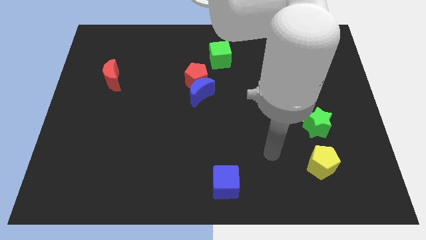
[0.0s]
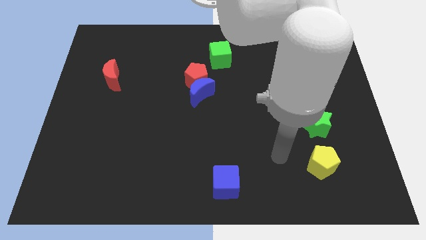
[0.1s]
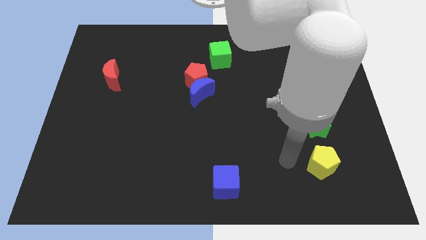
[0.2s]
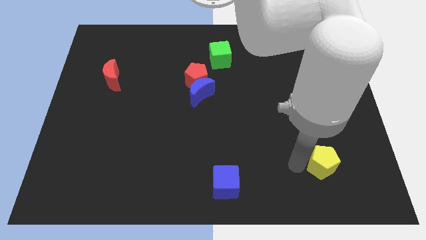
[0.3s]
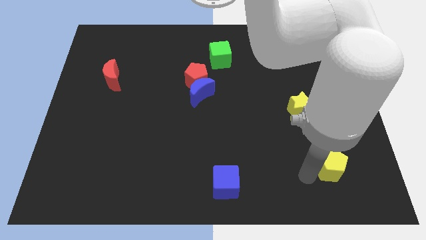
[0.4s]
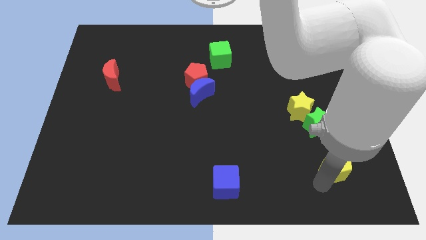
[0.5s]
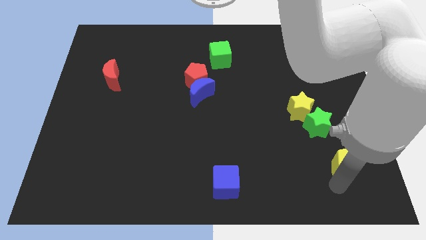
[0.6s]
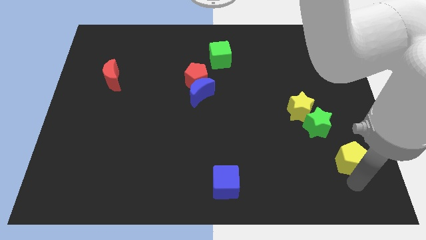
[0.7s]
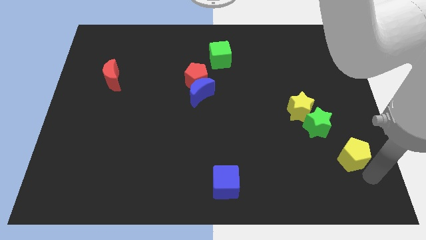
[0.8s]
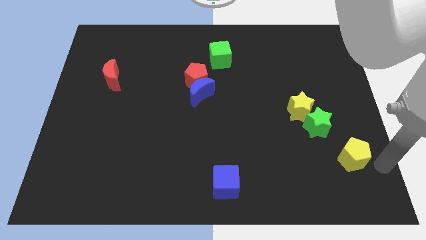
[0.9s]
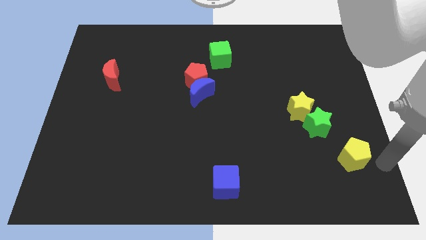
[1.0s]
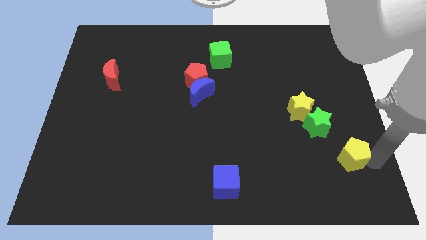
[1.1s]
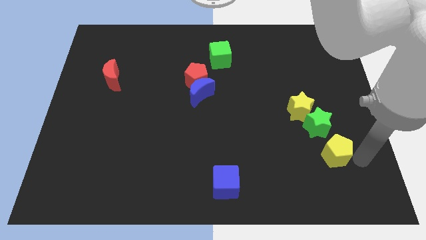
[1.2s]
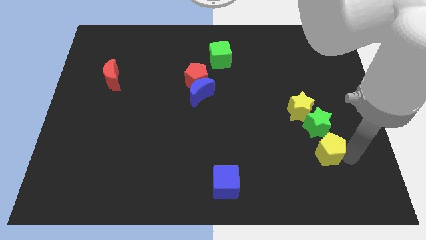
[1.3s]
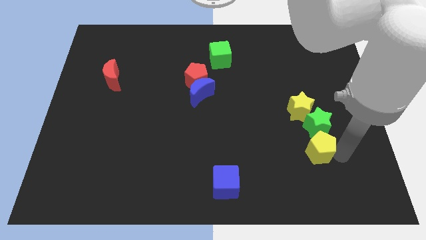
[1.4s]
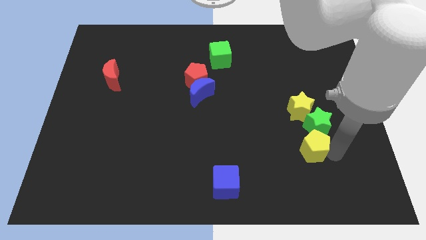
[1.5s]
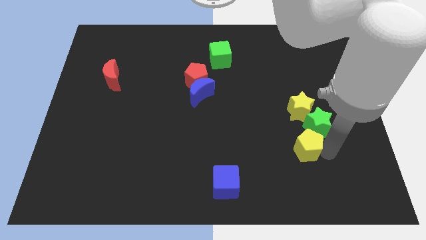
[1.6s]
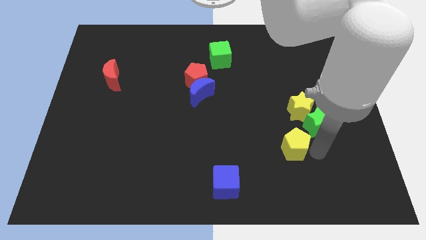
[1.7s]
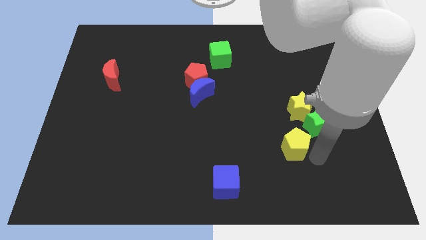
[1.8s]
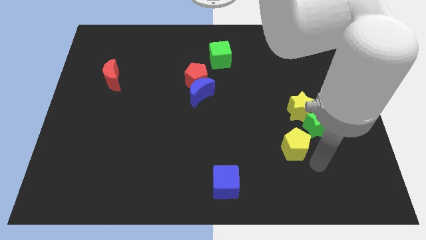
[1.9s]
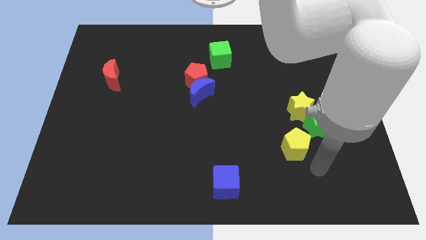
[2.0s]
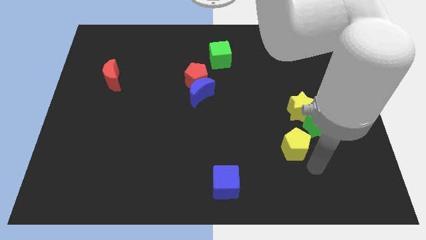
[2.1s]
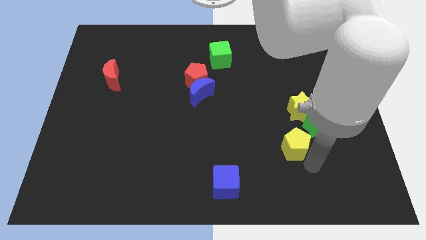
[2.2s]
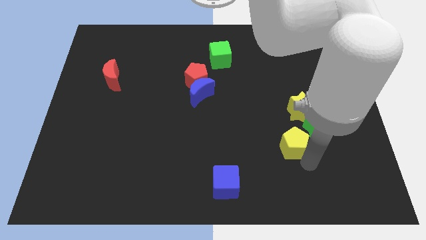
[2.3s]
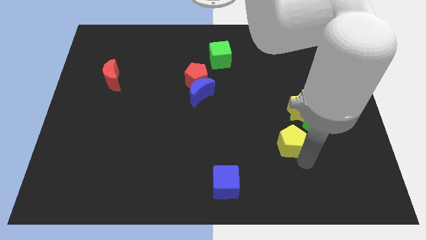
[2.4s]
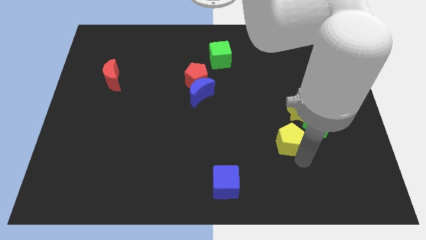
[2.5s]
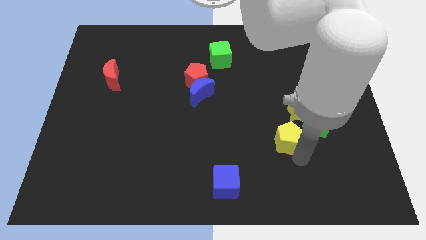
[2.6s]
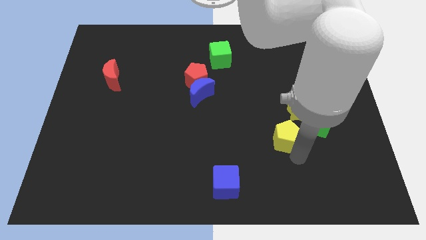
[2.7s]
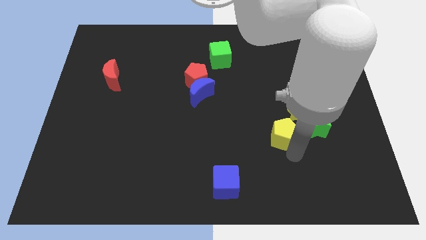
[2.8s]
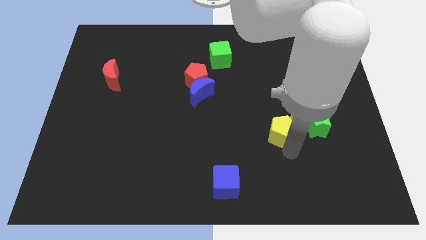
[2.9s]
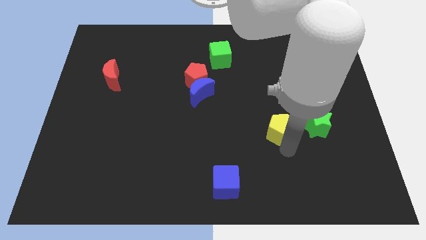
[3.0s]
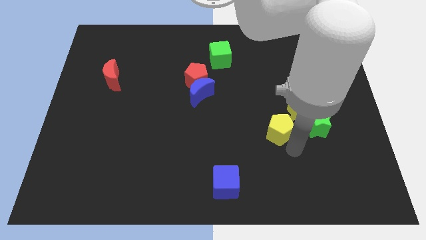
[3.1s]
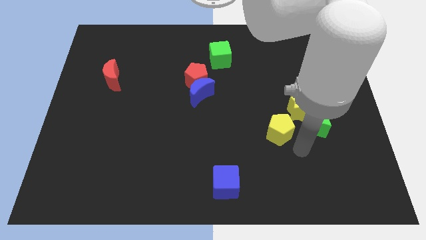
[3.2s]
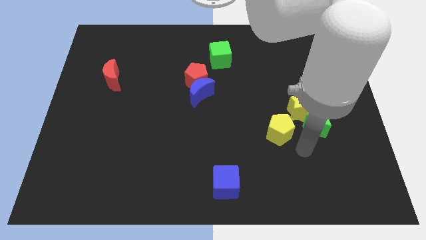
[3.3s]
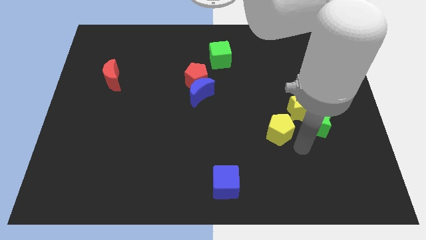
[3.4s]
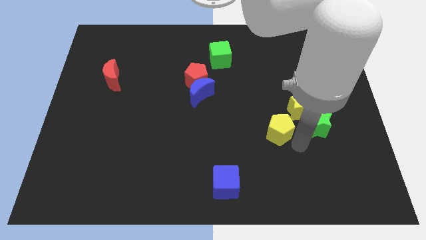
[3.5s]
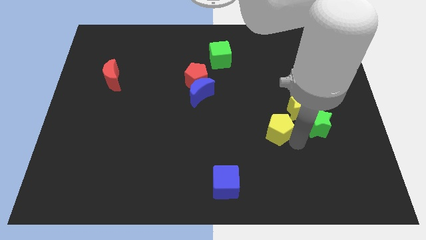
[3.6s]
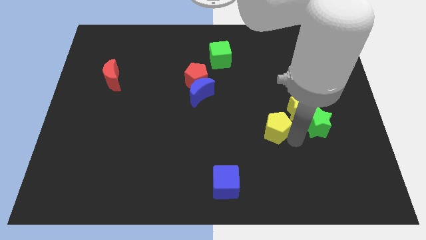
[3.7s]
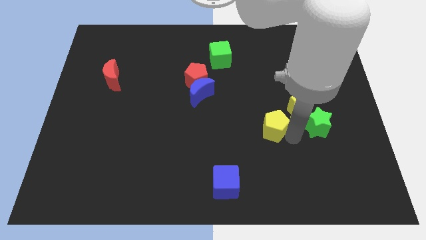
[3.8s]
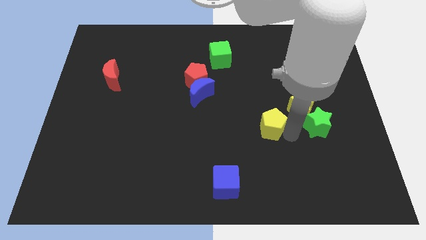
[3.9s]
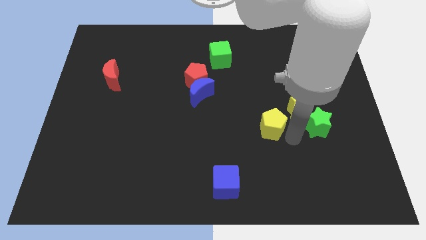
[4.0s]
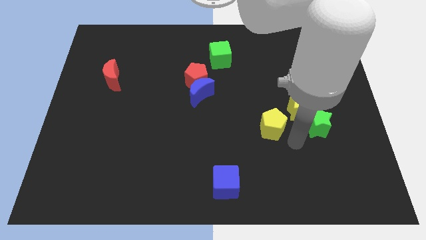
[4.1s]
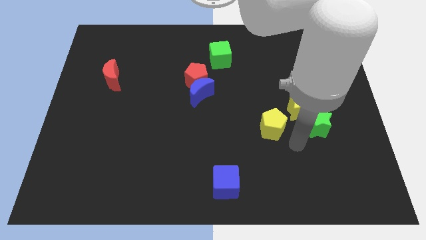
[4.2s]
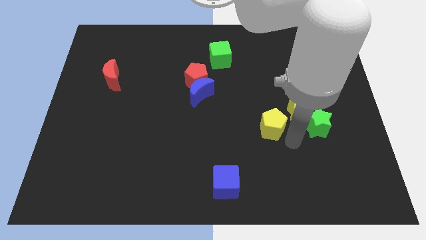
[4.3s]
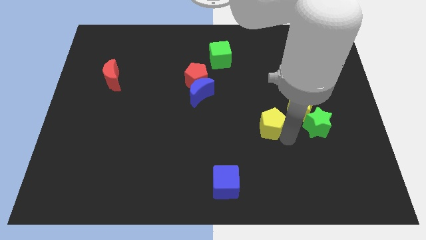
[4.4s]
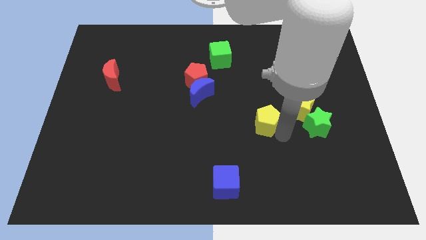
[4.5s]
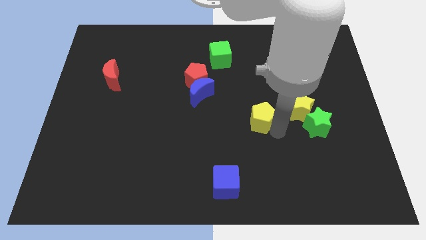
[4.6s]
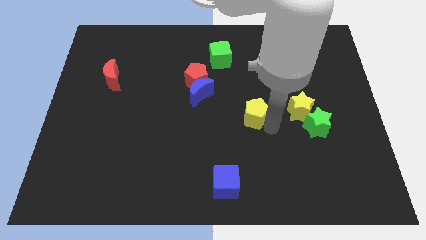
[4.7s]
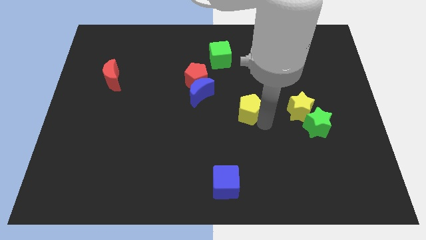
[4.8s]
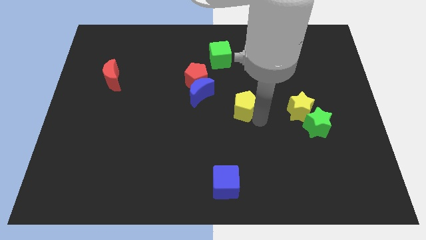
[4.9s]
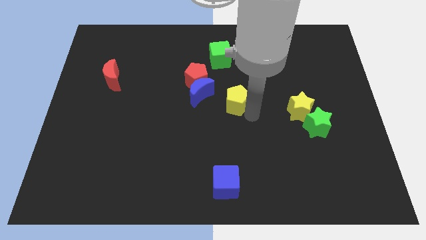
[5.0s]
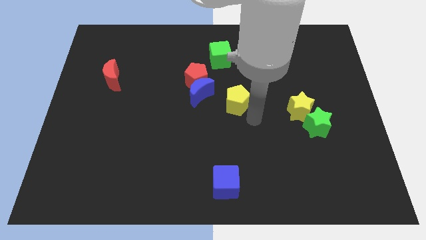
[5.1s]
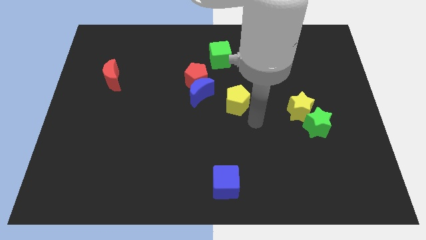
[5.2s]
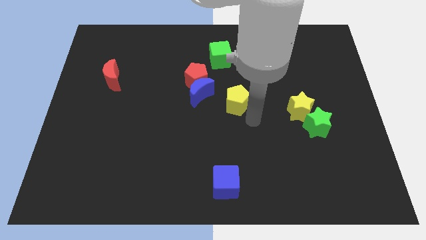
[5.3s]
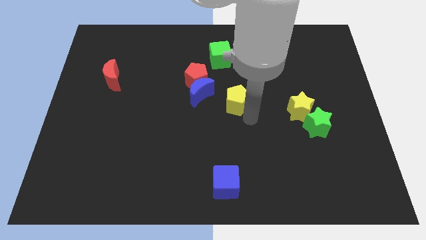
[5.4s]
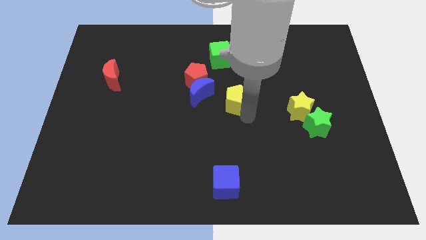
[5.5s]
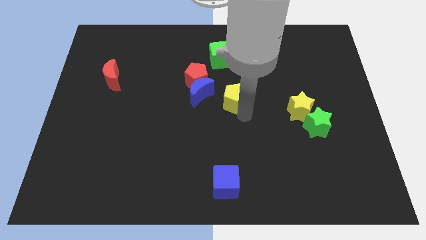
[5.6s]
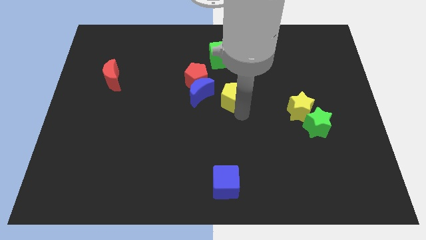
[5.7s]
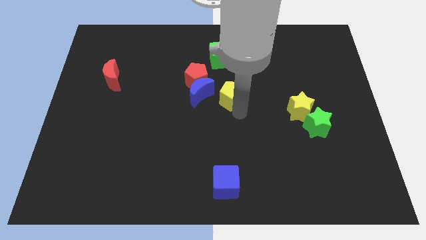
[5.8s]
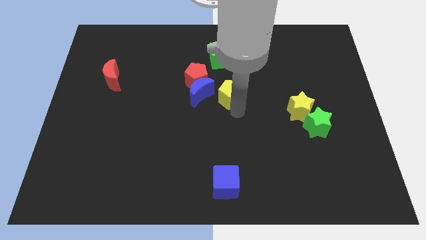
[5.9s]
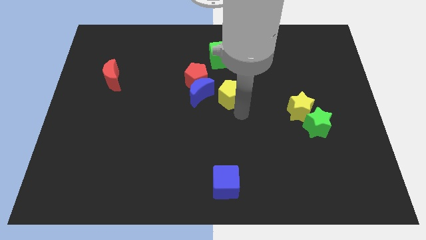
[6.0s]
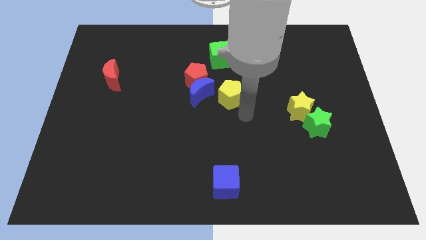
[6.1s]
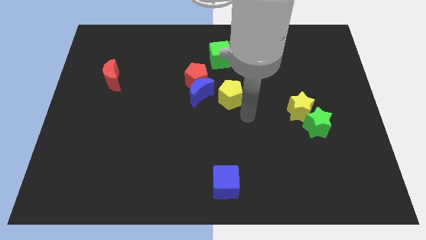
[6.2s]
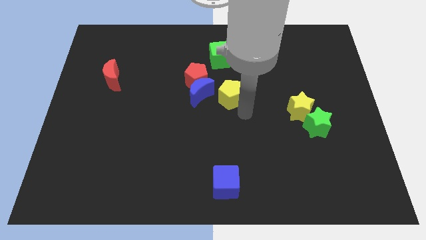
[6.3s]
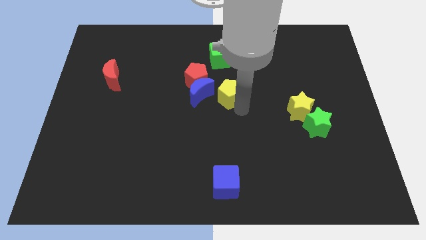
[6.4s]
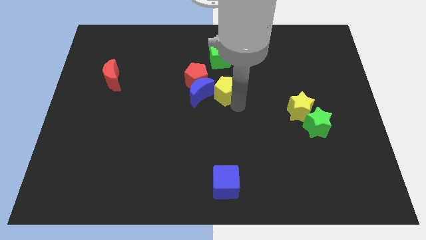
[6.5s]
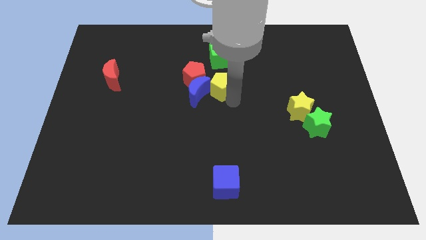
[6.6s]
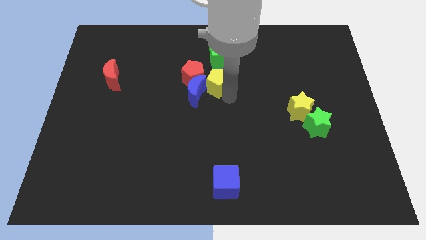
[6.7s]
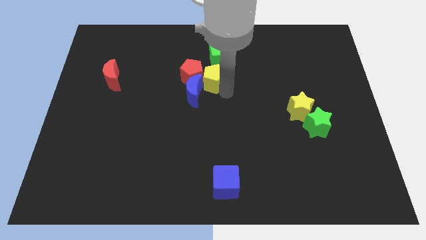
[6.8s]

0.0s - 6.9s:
move the yellow pentagon close to the red pentagon
